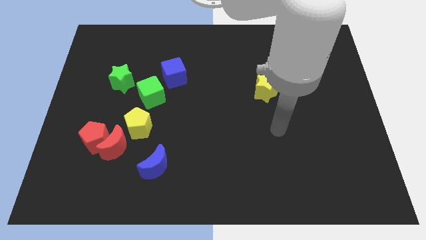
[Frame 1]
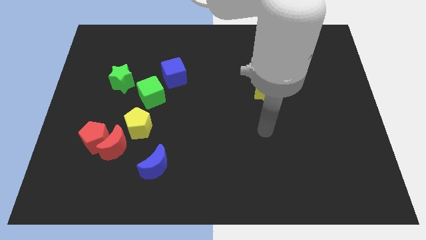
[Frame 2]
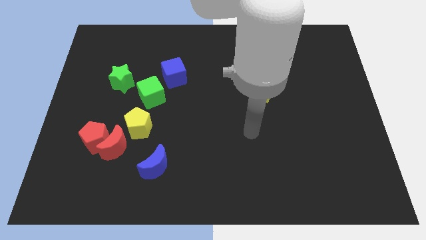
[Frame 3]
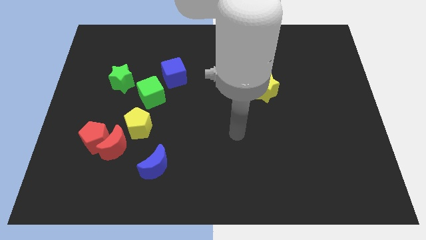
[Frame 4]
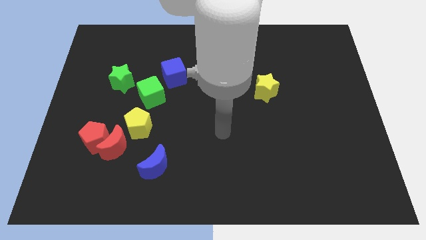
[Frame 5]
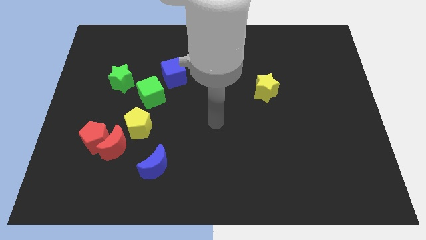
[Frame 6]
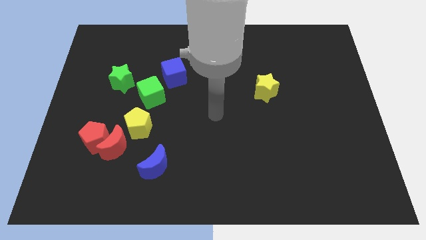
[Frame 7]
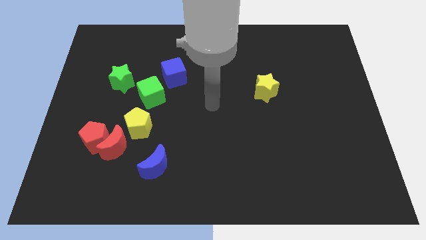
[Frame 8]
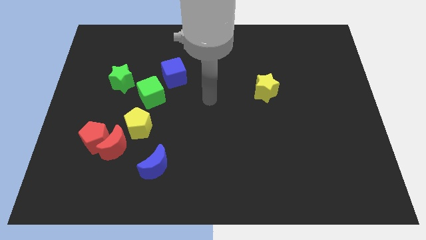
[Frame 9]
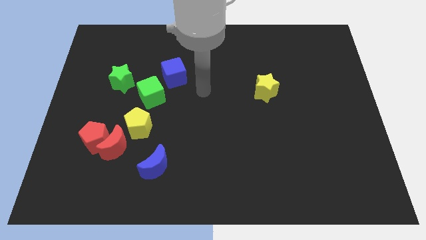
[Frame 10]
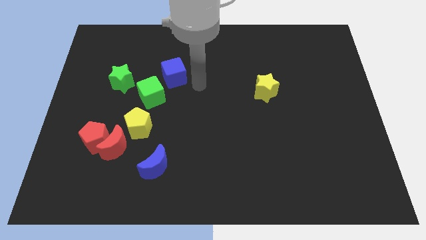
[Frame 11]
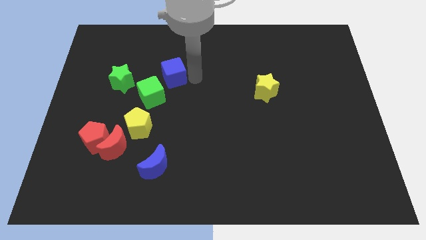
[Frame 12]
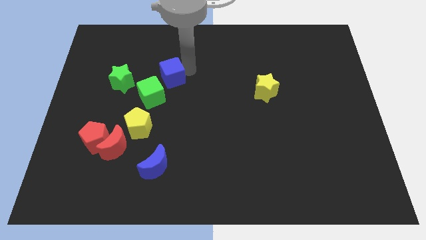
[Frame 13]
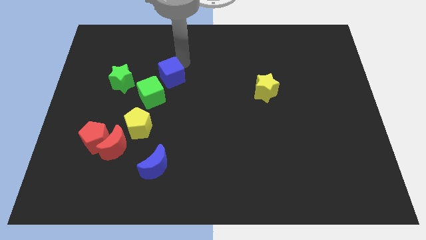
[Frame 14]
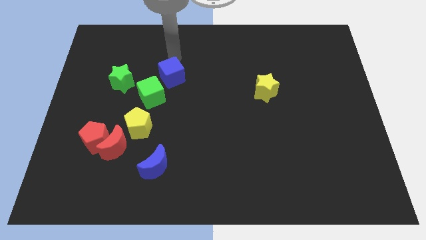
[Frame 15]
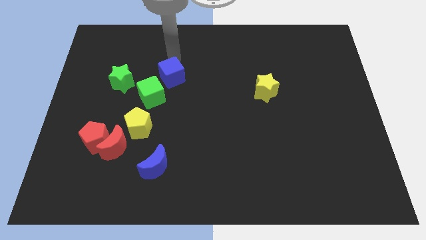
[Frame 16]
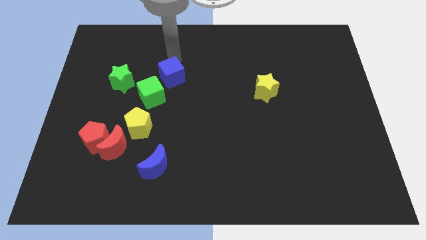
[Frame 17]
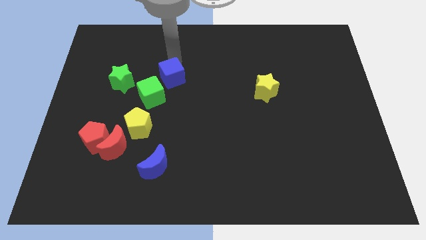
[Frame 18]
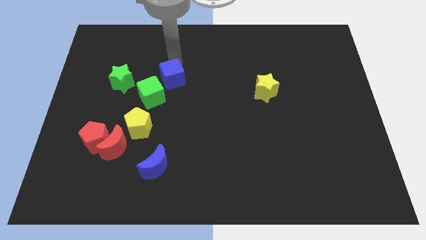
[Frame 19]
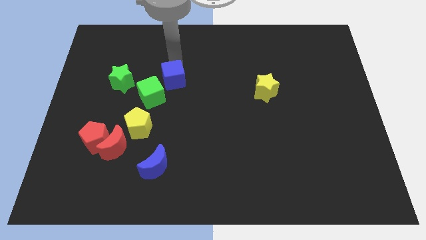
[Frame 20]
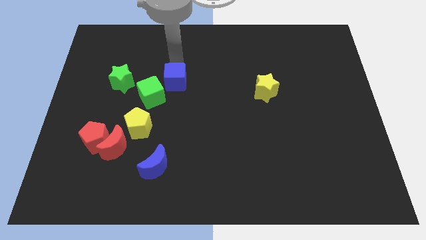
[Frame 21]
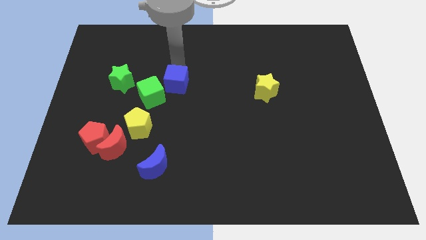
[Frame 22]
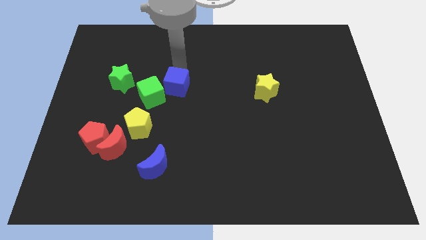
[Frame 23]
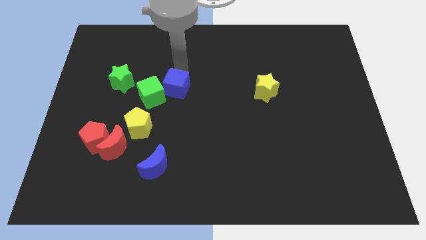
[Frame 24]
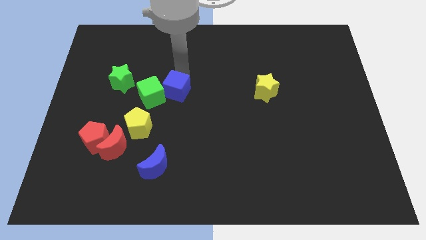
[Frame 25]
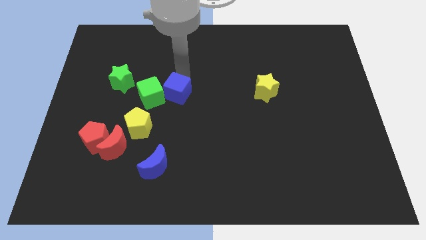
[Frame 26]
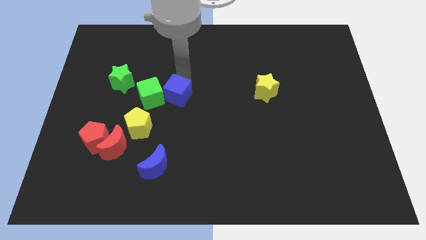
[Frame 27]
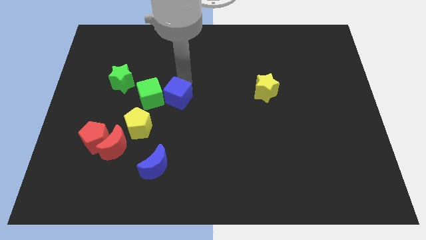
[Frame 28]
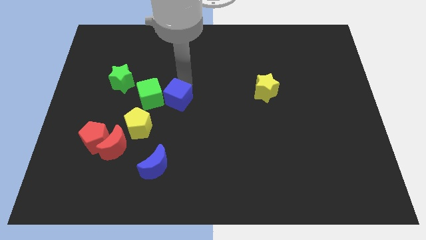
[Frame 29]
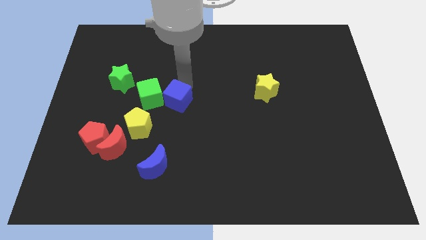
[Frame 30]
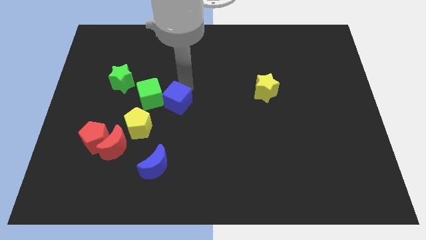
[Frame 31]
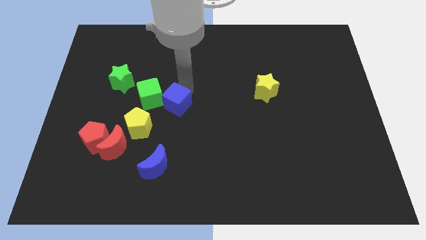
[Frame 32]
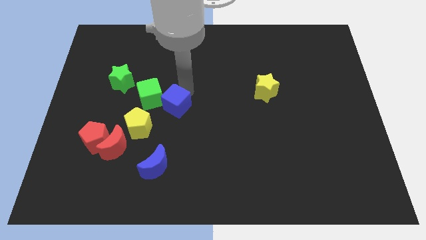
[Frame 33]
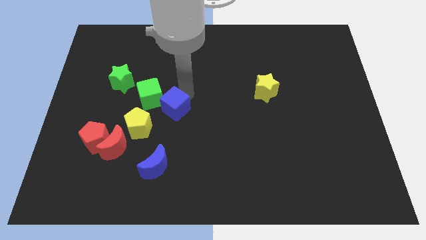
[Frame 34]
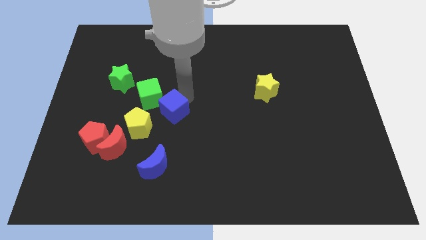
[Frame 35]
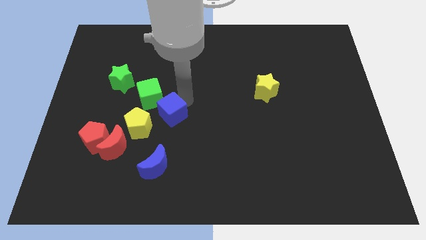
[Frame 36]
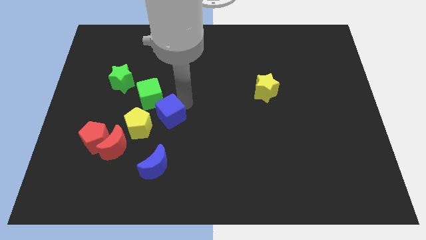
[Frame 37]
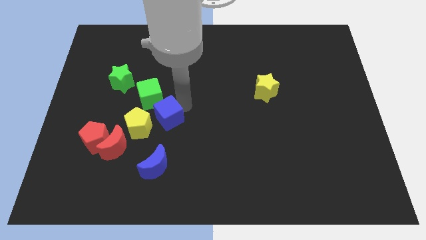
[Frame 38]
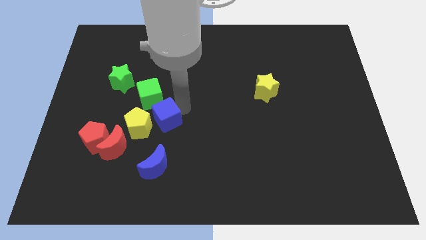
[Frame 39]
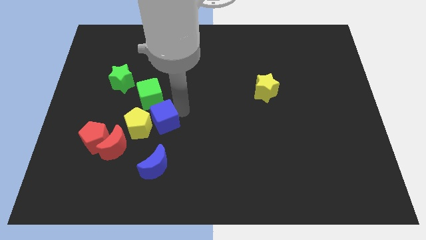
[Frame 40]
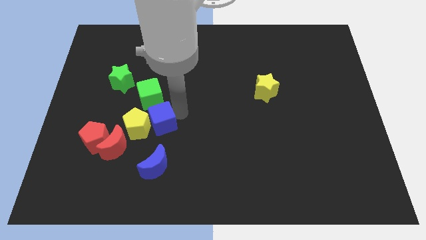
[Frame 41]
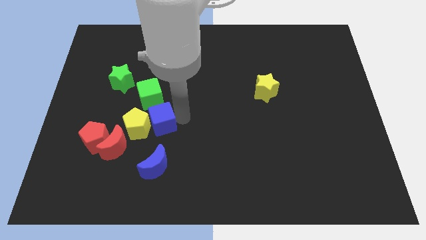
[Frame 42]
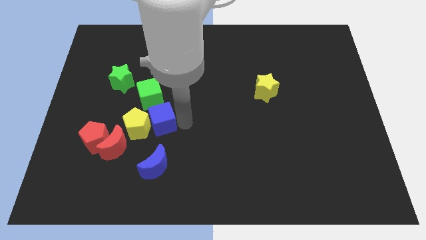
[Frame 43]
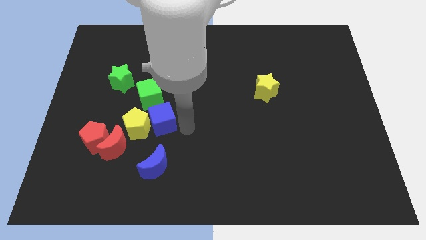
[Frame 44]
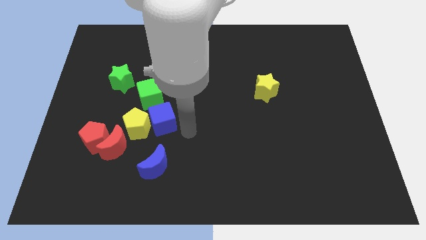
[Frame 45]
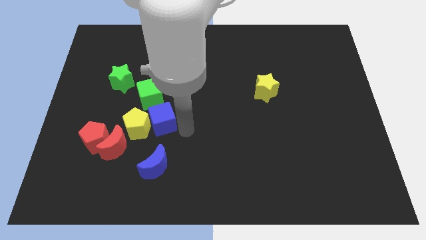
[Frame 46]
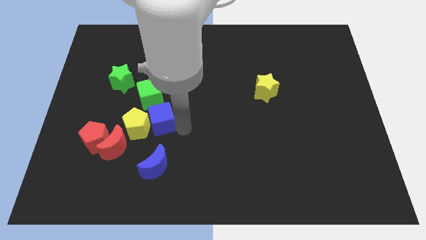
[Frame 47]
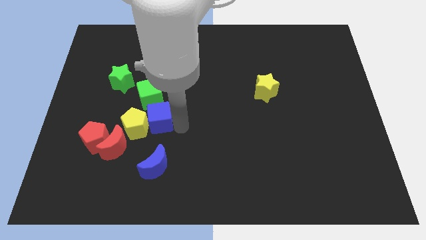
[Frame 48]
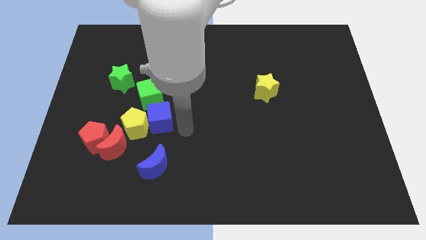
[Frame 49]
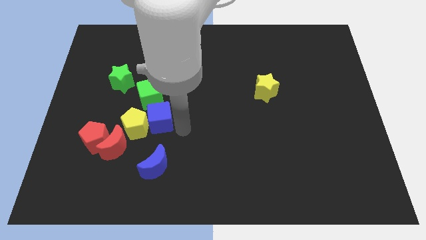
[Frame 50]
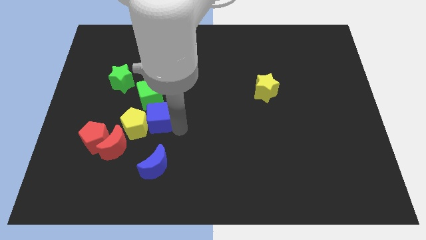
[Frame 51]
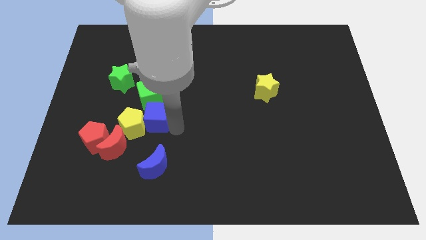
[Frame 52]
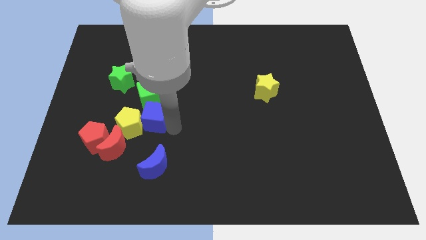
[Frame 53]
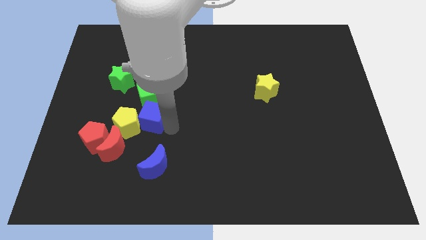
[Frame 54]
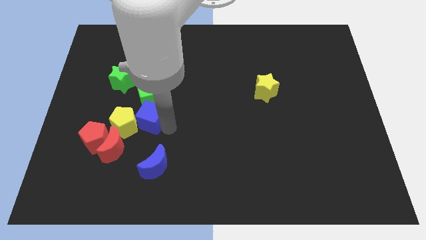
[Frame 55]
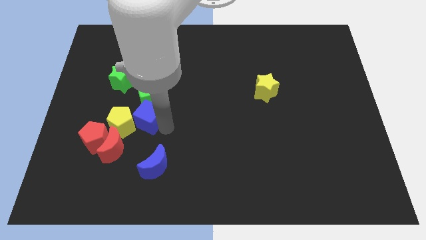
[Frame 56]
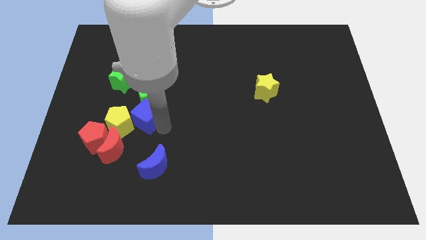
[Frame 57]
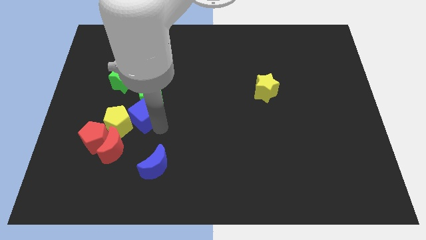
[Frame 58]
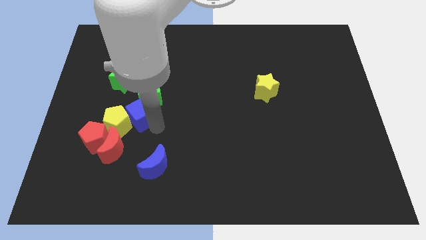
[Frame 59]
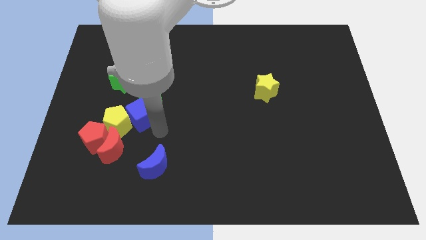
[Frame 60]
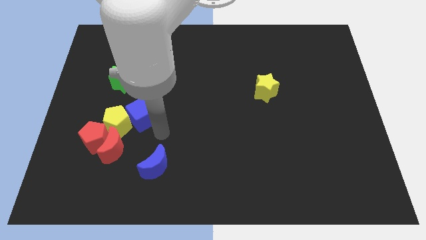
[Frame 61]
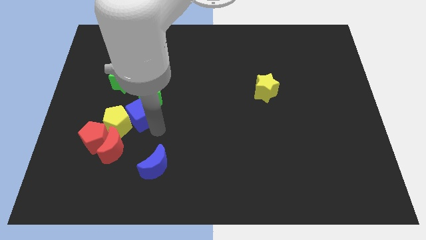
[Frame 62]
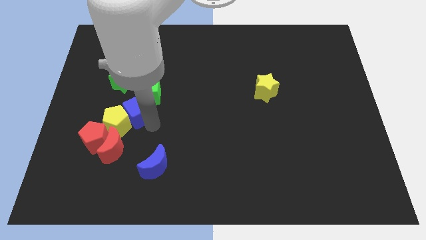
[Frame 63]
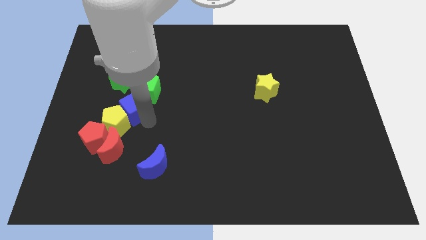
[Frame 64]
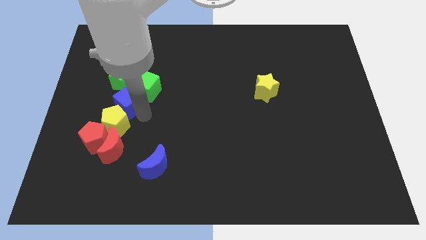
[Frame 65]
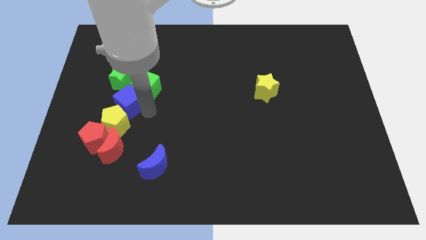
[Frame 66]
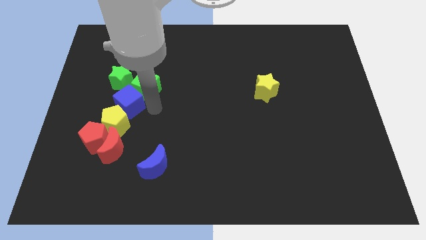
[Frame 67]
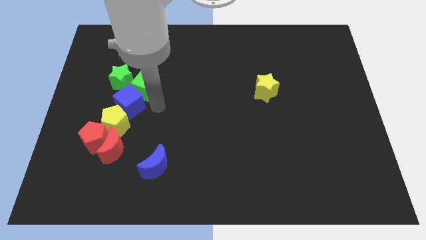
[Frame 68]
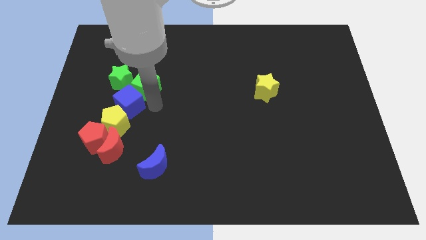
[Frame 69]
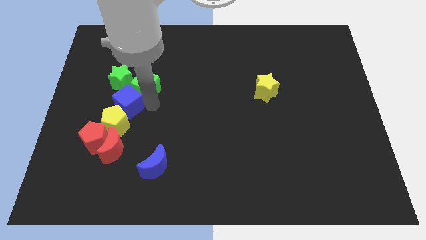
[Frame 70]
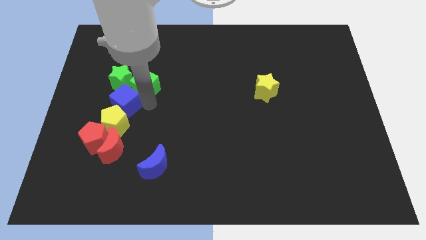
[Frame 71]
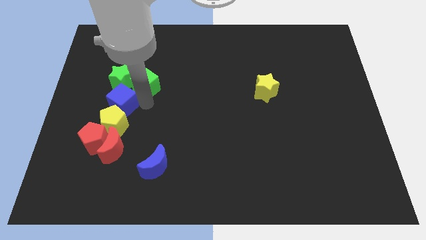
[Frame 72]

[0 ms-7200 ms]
put the blue cube to the top of the red pentagon
